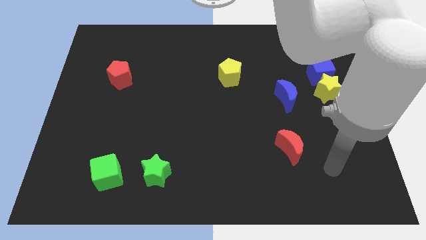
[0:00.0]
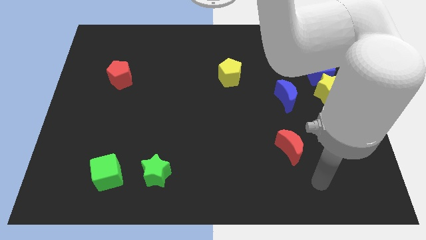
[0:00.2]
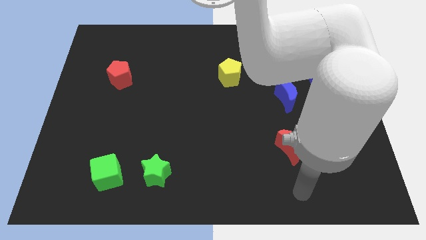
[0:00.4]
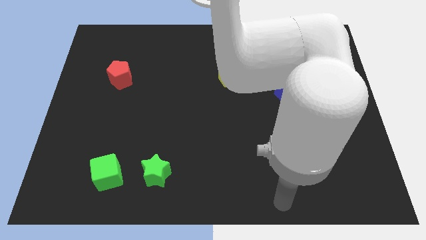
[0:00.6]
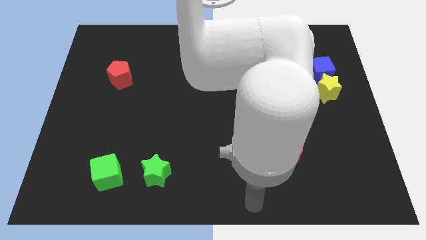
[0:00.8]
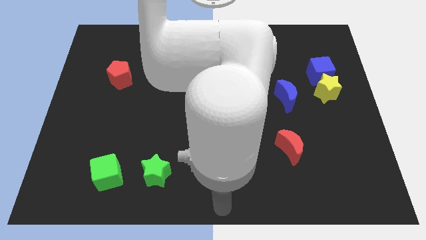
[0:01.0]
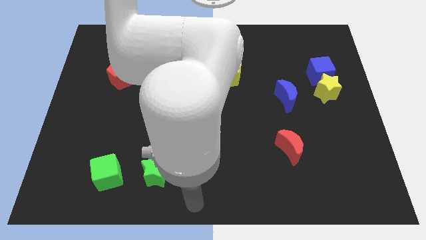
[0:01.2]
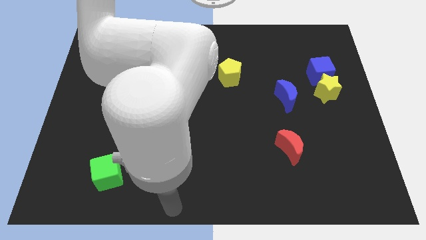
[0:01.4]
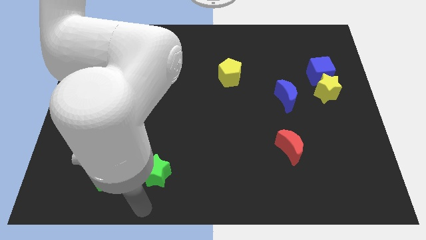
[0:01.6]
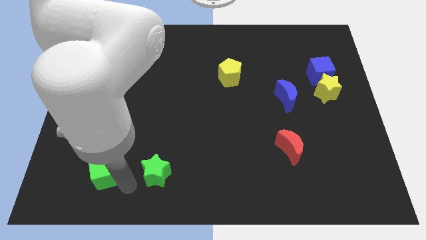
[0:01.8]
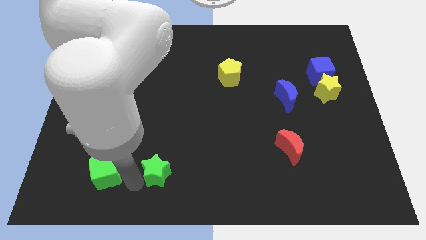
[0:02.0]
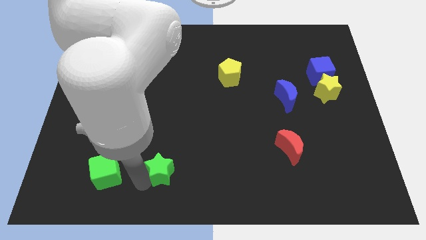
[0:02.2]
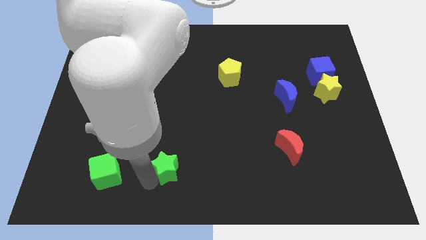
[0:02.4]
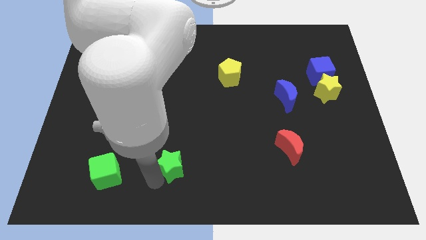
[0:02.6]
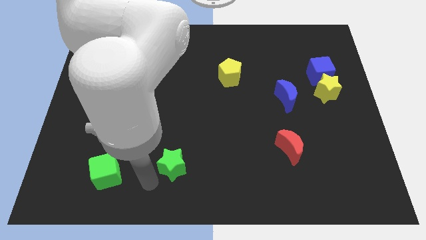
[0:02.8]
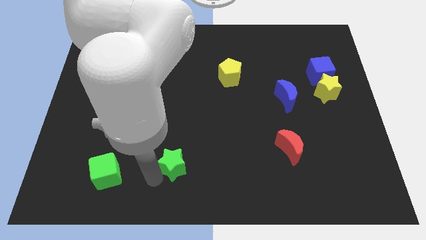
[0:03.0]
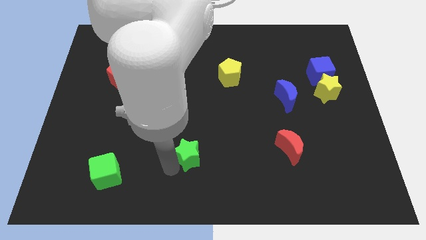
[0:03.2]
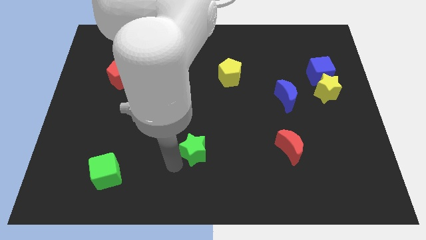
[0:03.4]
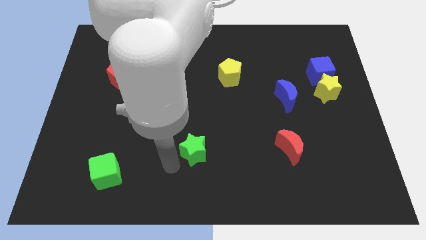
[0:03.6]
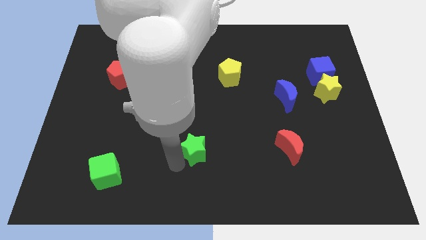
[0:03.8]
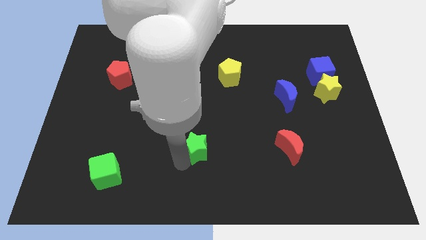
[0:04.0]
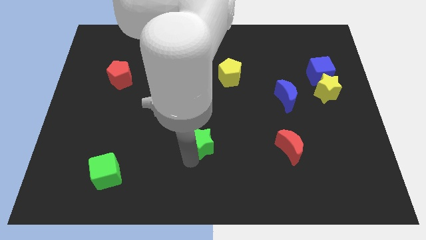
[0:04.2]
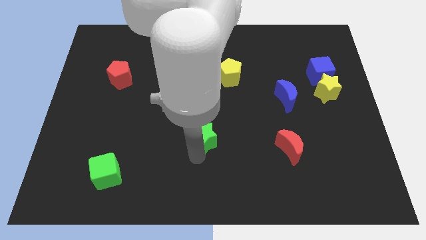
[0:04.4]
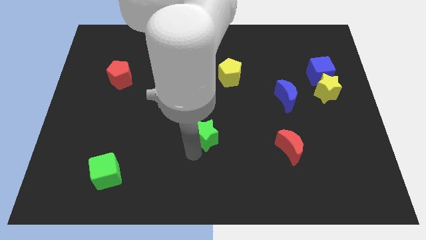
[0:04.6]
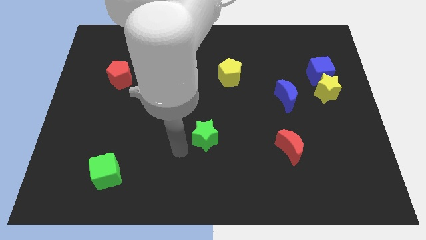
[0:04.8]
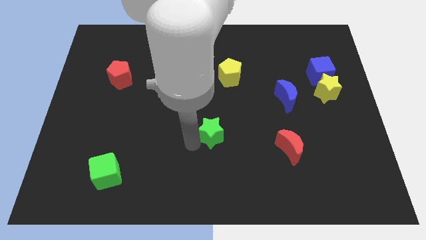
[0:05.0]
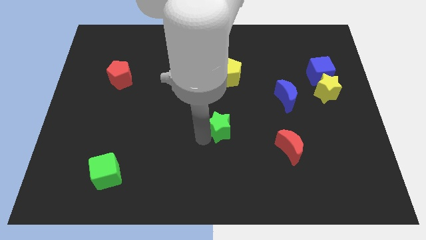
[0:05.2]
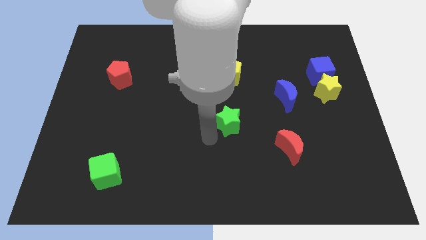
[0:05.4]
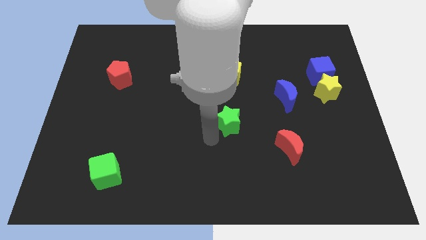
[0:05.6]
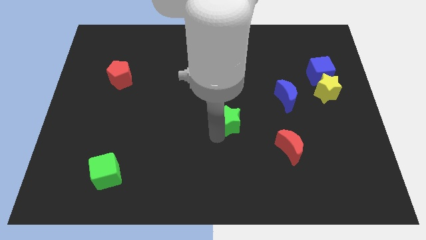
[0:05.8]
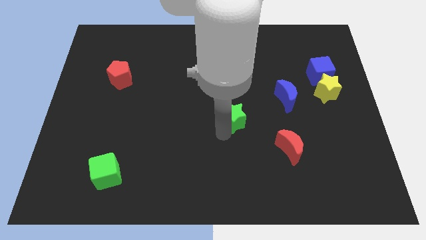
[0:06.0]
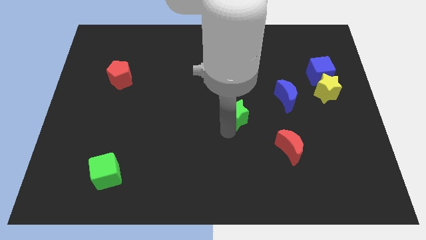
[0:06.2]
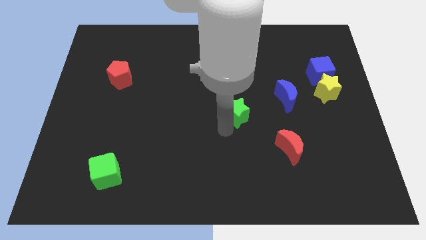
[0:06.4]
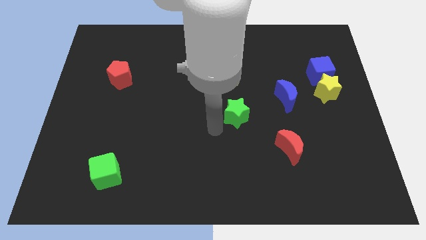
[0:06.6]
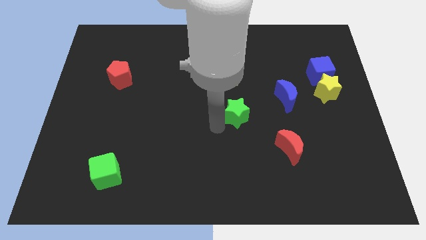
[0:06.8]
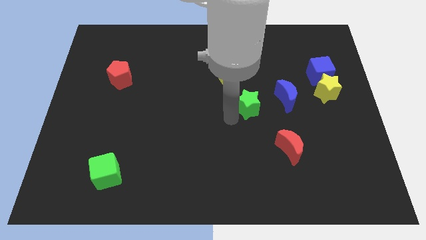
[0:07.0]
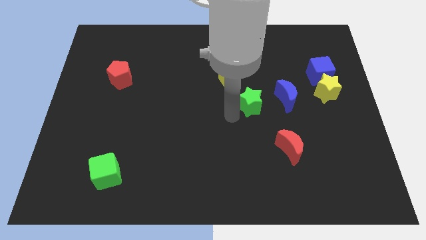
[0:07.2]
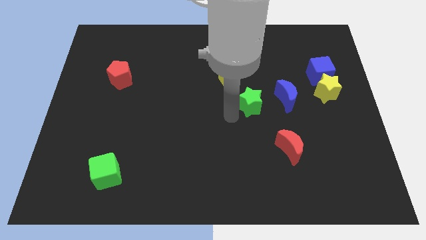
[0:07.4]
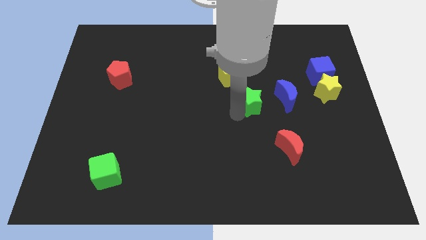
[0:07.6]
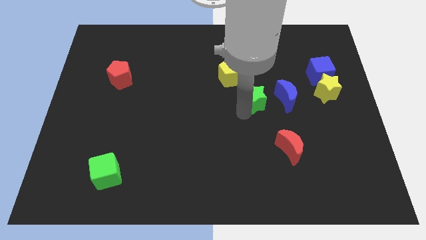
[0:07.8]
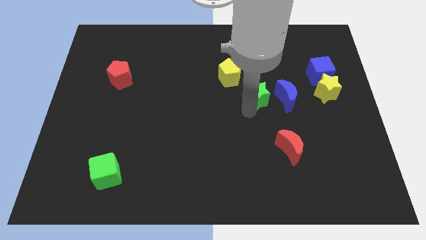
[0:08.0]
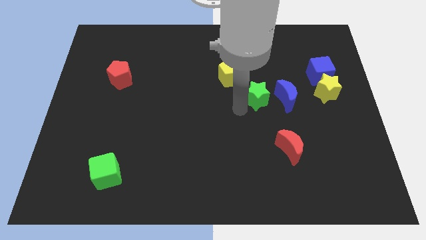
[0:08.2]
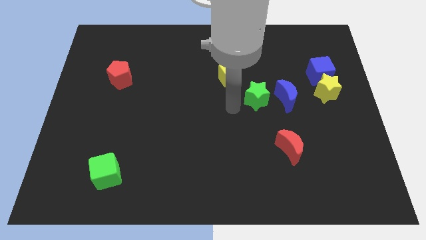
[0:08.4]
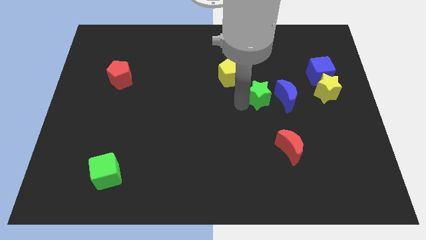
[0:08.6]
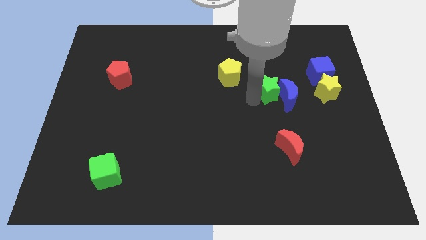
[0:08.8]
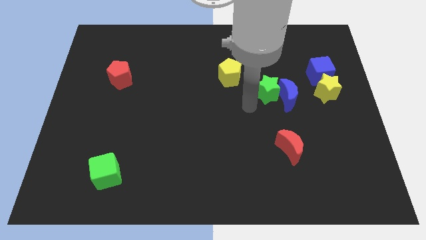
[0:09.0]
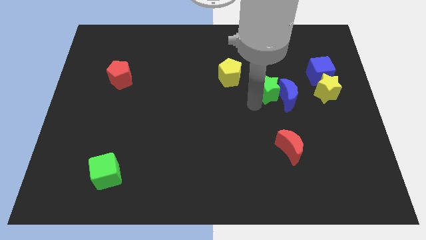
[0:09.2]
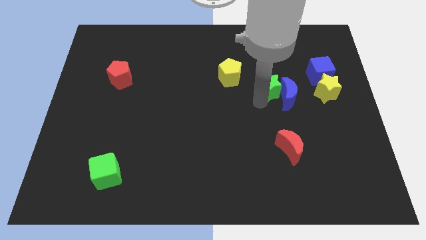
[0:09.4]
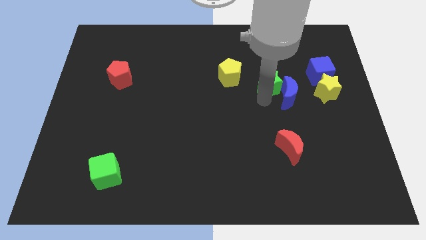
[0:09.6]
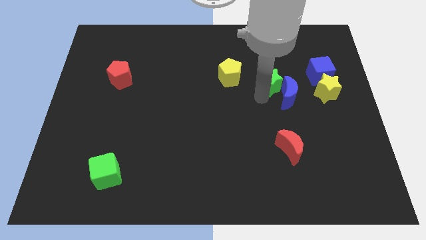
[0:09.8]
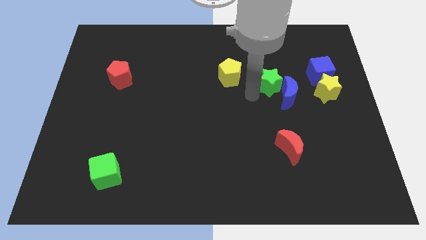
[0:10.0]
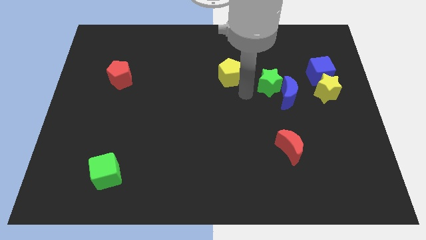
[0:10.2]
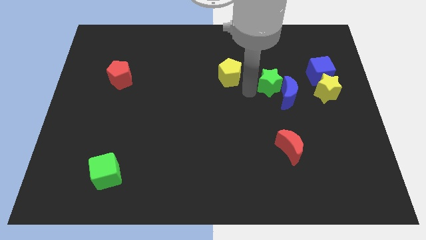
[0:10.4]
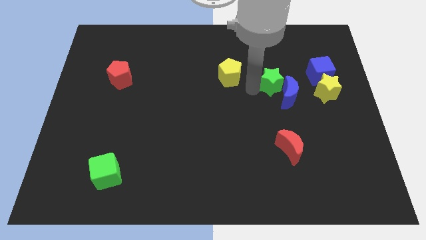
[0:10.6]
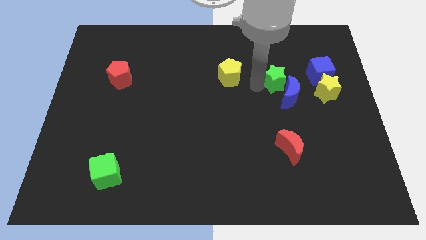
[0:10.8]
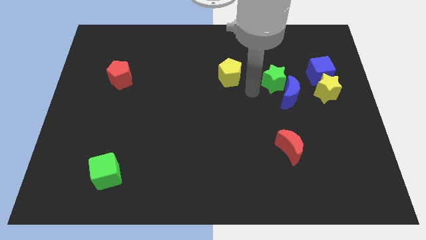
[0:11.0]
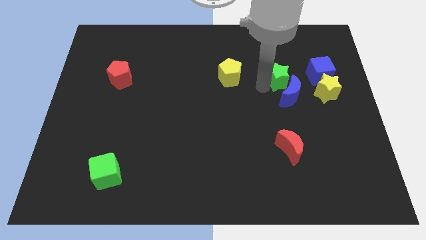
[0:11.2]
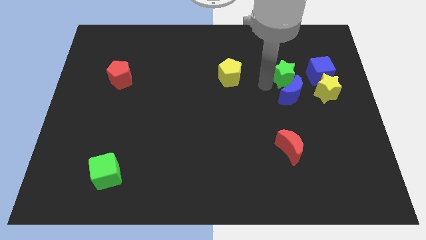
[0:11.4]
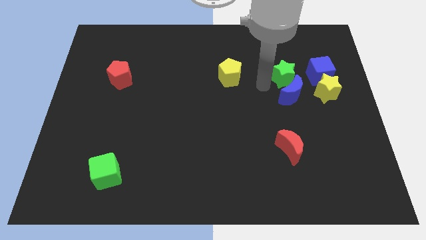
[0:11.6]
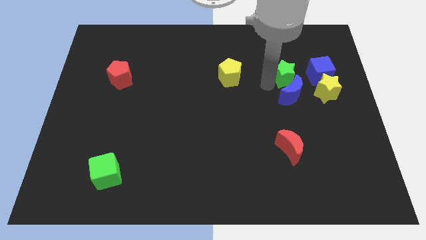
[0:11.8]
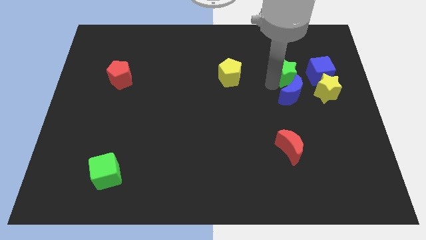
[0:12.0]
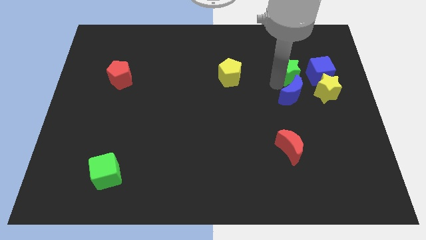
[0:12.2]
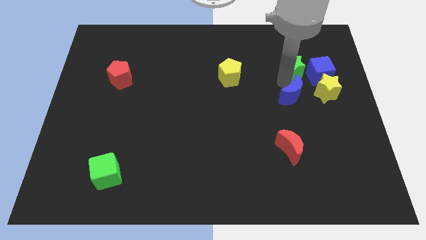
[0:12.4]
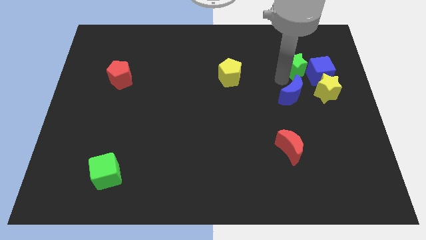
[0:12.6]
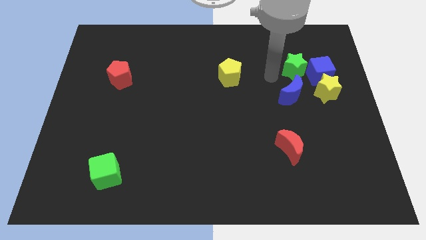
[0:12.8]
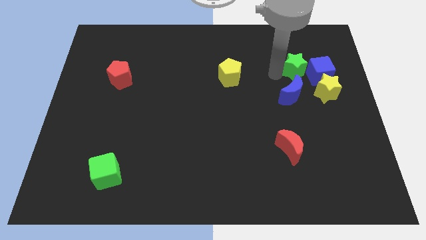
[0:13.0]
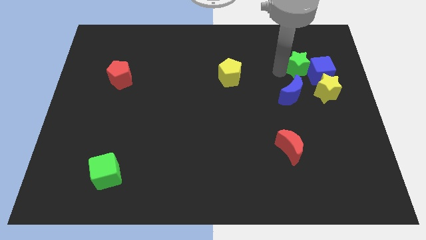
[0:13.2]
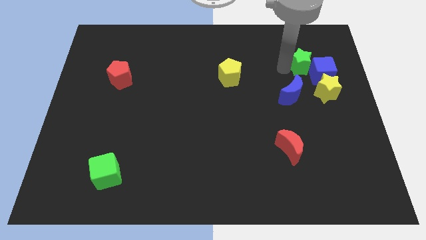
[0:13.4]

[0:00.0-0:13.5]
move the green star to the top side of the yellow star

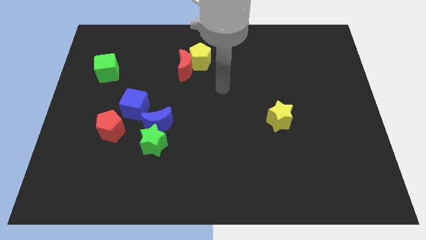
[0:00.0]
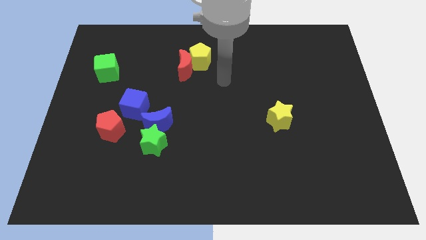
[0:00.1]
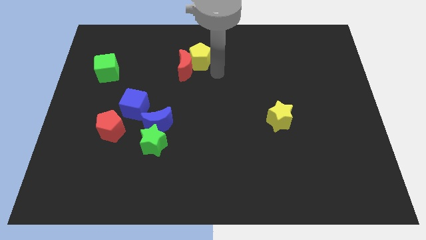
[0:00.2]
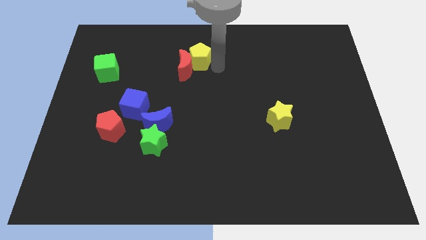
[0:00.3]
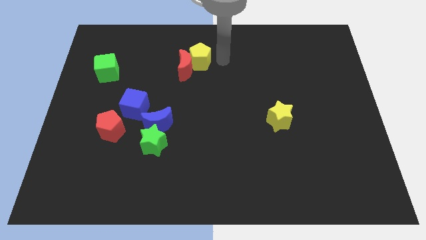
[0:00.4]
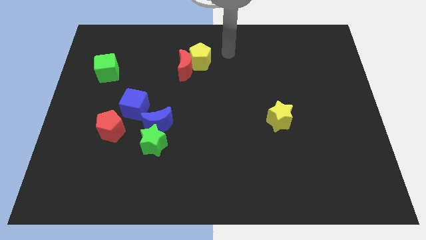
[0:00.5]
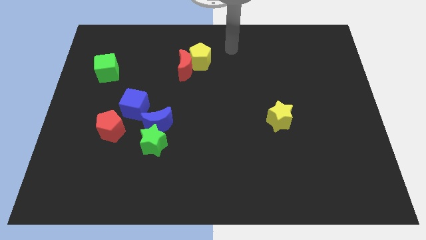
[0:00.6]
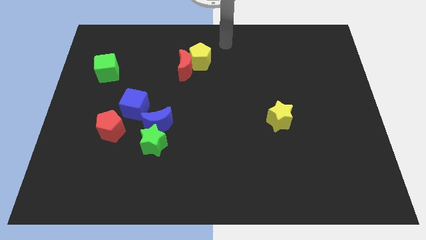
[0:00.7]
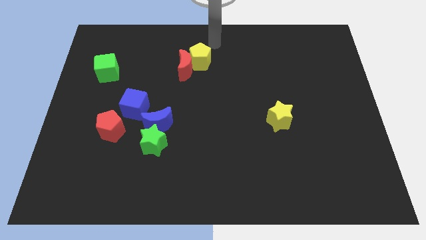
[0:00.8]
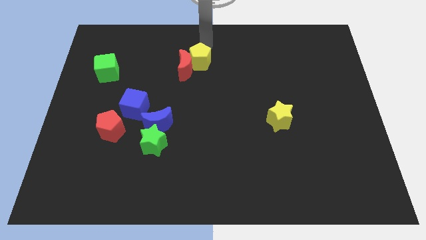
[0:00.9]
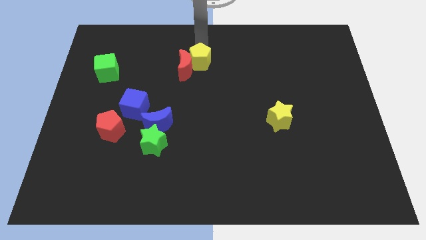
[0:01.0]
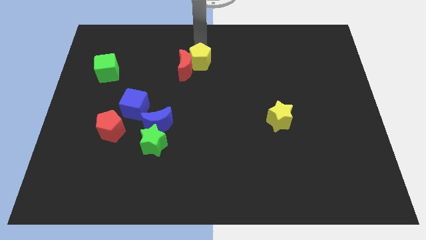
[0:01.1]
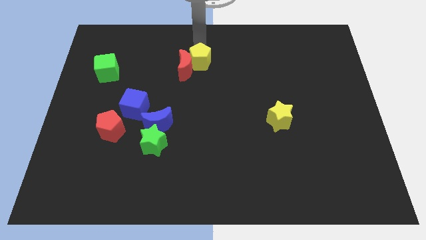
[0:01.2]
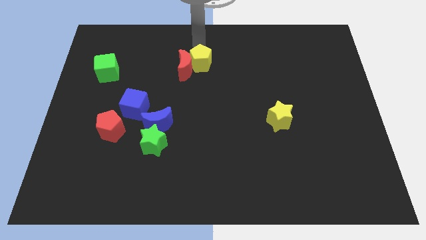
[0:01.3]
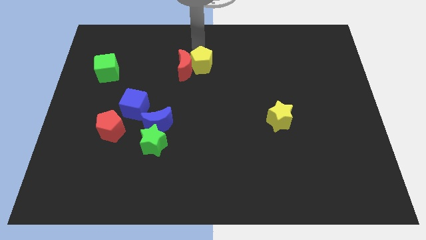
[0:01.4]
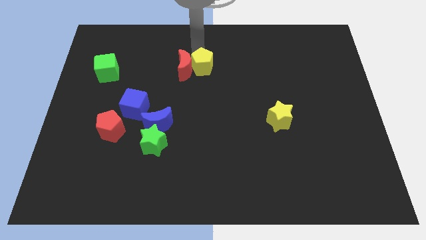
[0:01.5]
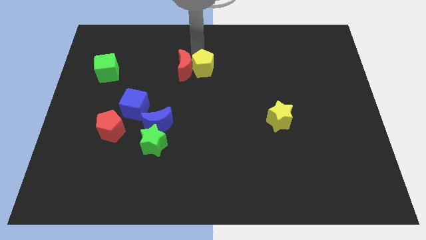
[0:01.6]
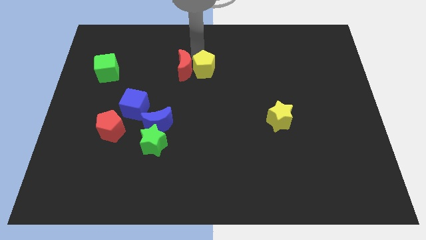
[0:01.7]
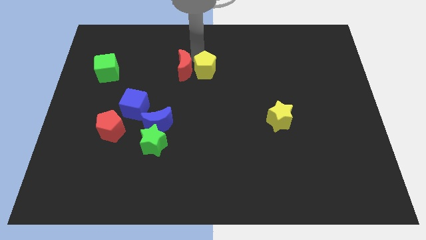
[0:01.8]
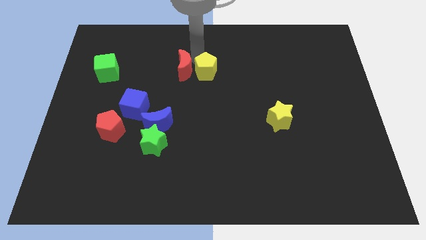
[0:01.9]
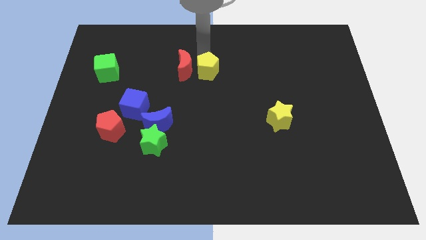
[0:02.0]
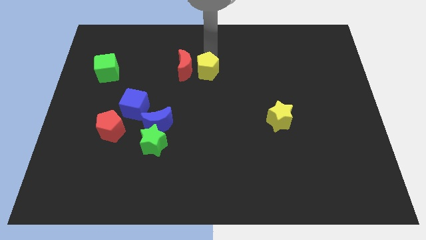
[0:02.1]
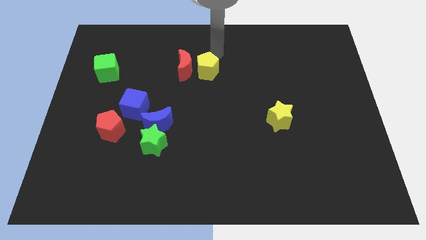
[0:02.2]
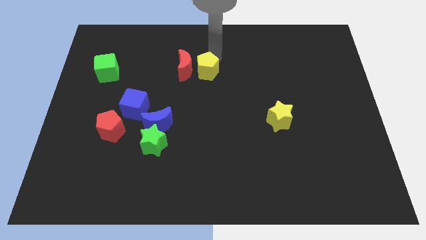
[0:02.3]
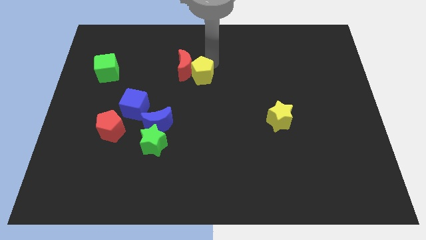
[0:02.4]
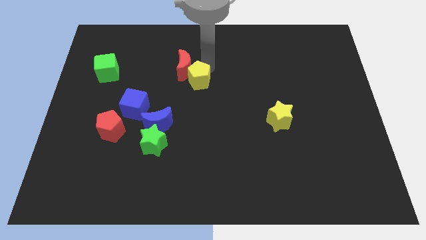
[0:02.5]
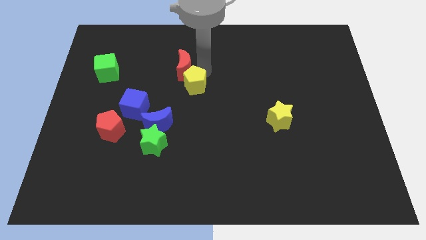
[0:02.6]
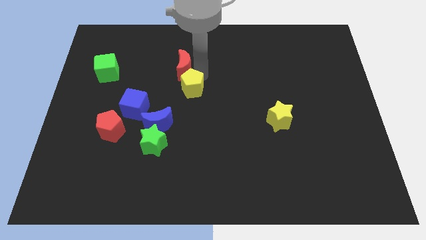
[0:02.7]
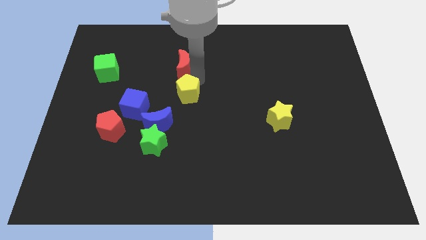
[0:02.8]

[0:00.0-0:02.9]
push the yellow pentagon diagonally up and to the right of the blue moon
